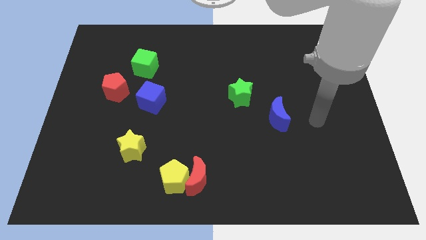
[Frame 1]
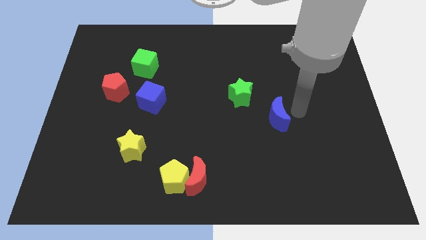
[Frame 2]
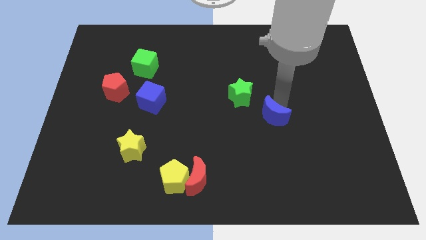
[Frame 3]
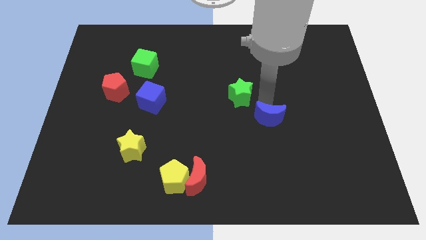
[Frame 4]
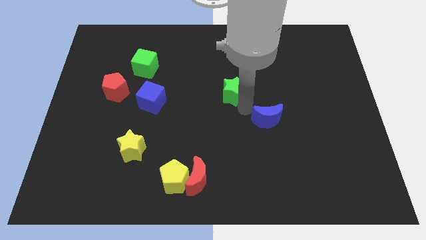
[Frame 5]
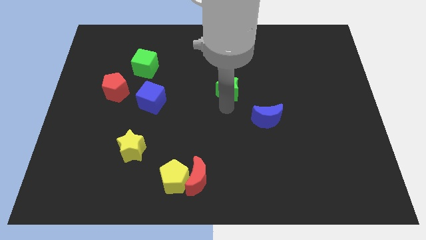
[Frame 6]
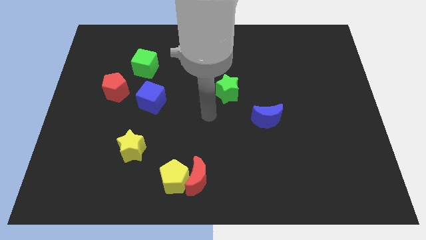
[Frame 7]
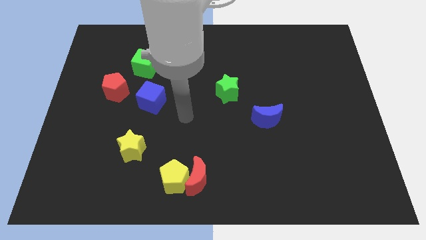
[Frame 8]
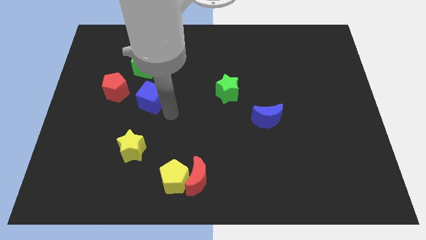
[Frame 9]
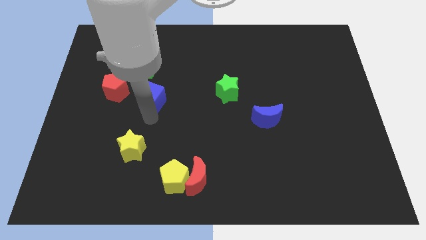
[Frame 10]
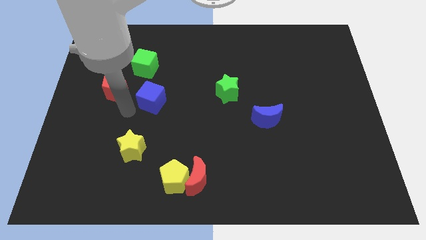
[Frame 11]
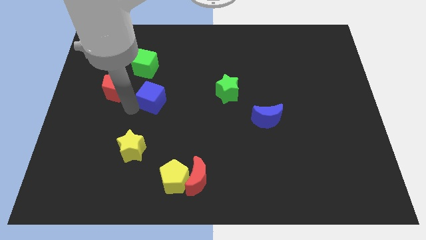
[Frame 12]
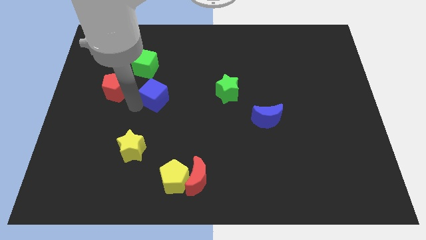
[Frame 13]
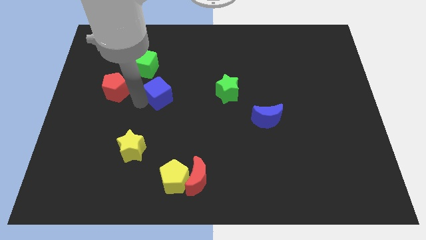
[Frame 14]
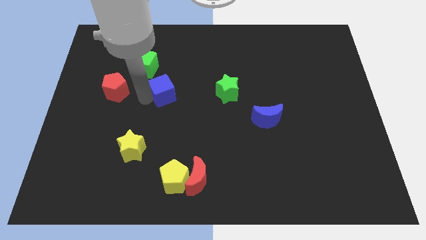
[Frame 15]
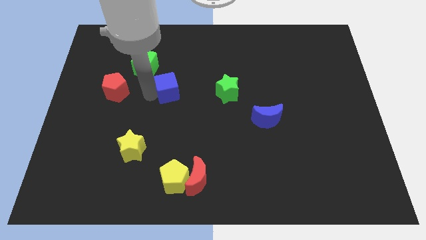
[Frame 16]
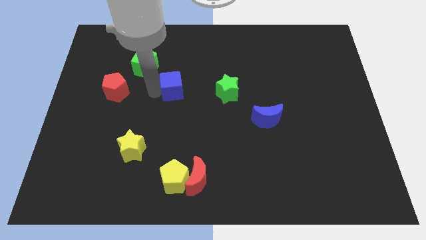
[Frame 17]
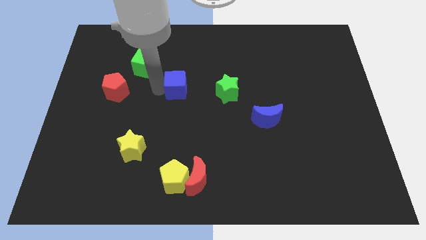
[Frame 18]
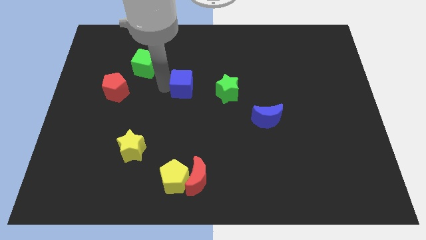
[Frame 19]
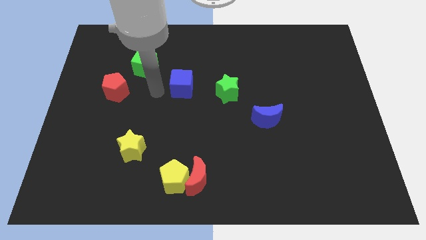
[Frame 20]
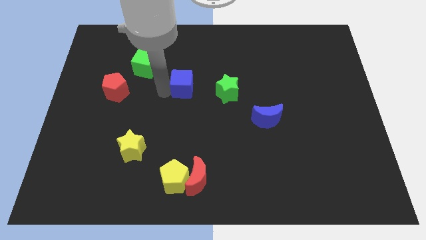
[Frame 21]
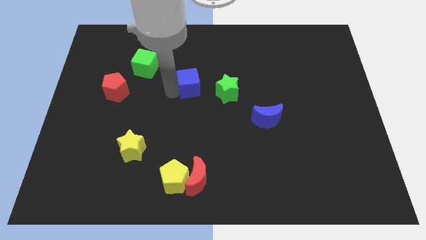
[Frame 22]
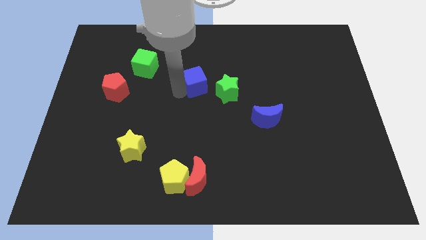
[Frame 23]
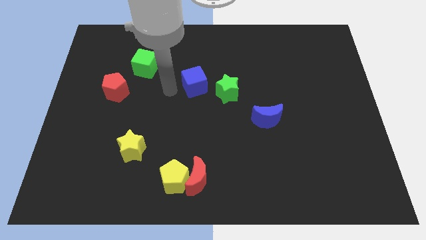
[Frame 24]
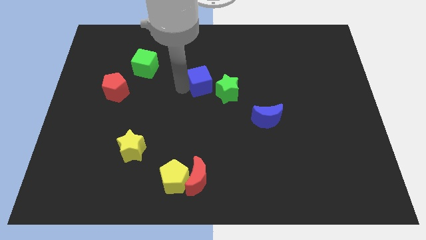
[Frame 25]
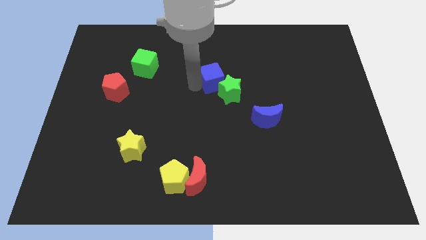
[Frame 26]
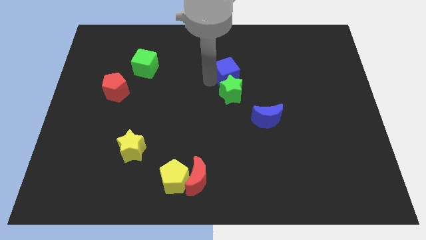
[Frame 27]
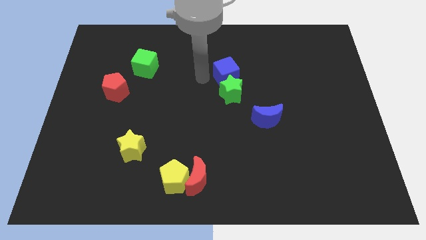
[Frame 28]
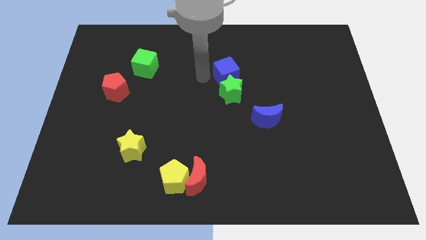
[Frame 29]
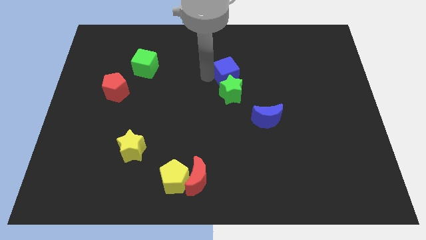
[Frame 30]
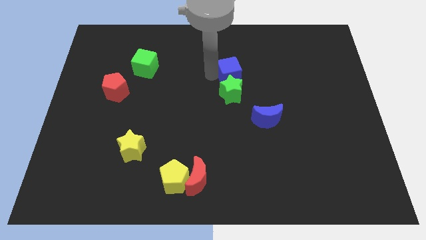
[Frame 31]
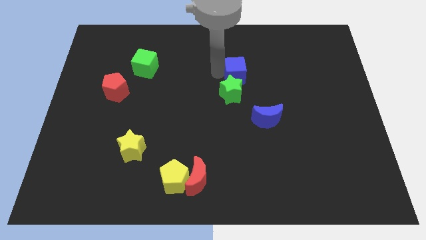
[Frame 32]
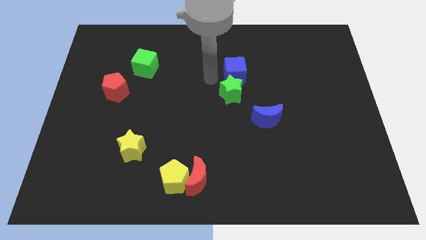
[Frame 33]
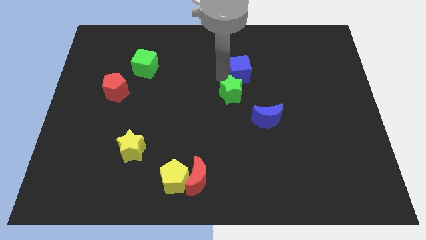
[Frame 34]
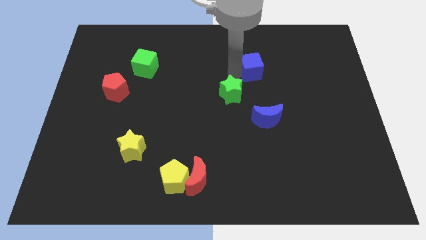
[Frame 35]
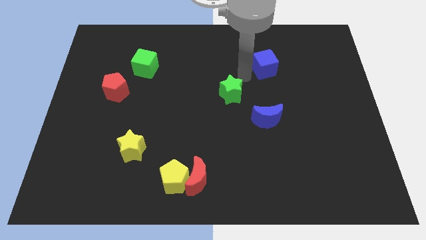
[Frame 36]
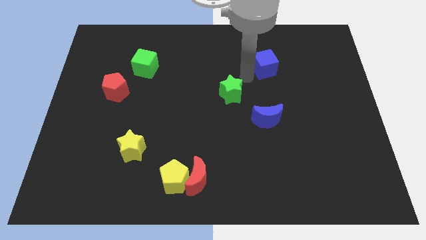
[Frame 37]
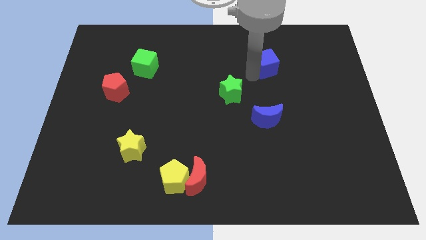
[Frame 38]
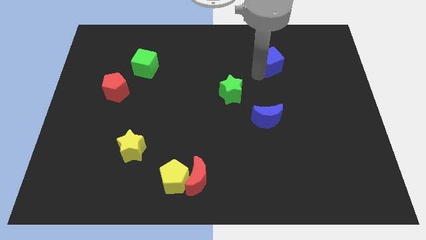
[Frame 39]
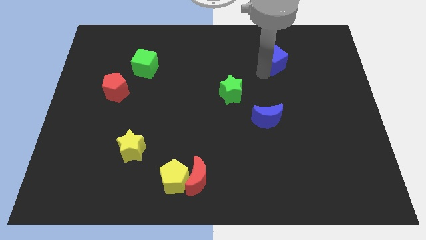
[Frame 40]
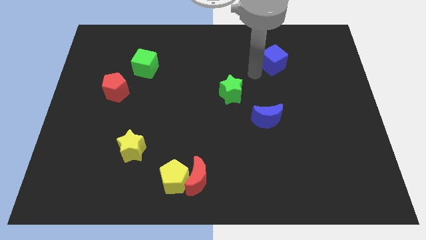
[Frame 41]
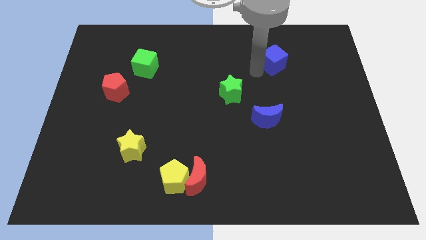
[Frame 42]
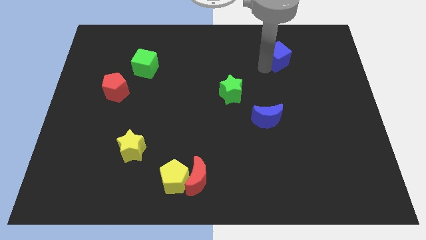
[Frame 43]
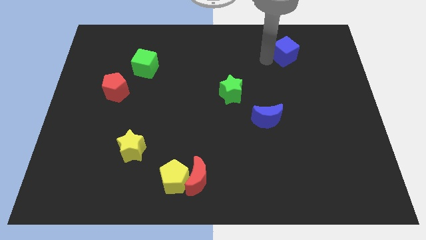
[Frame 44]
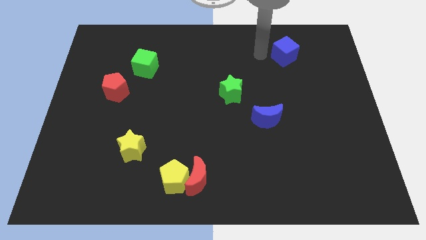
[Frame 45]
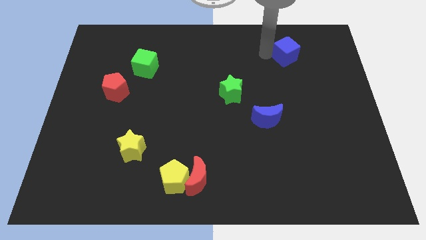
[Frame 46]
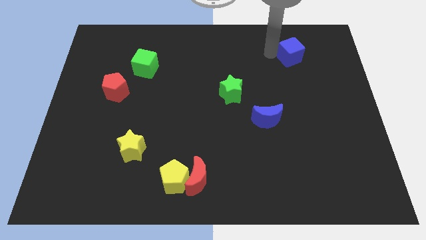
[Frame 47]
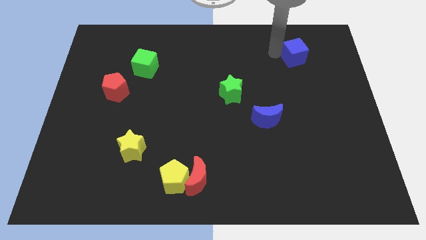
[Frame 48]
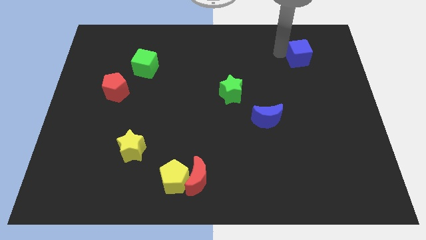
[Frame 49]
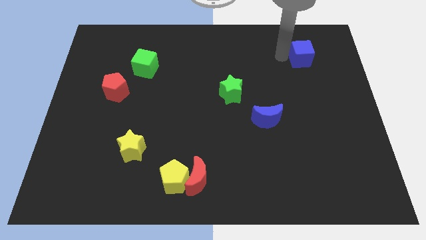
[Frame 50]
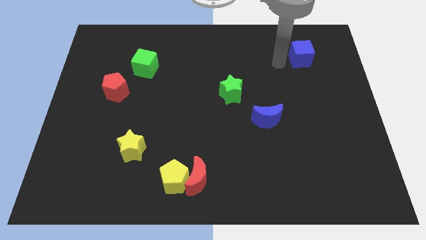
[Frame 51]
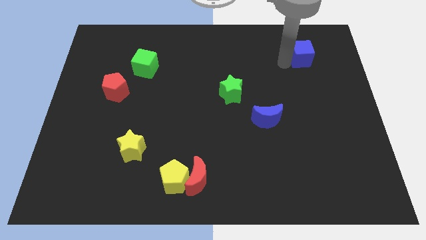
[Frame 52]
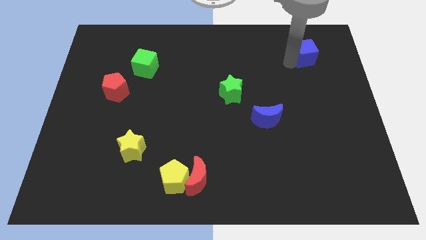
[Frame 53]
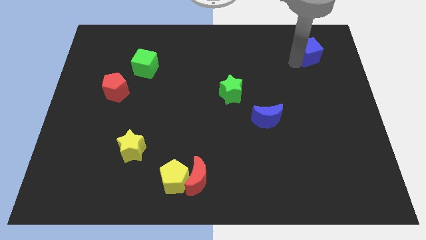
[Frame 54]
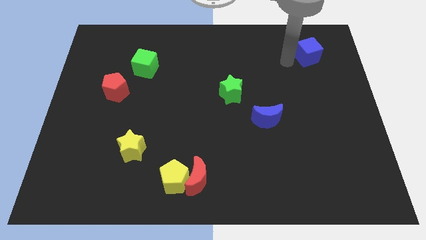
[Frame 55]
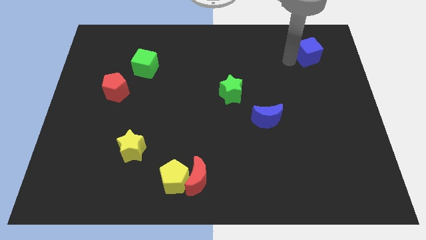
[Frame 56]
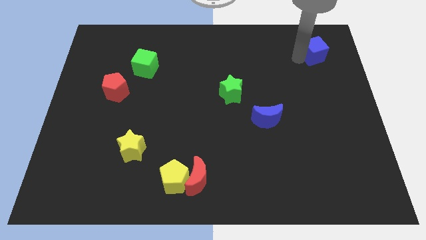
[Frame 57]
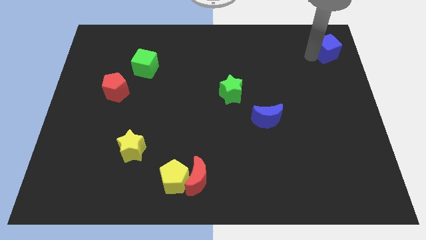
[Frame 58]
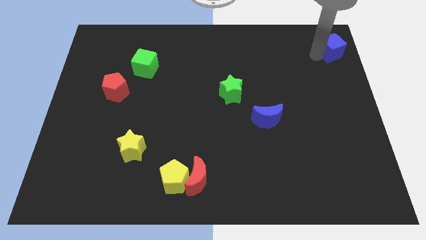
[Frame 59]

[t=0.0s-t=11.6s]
slide the blue cube to the top right
